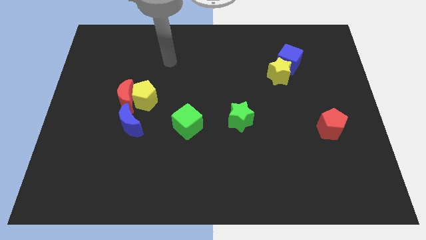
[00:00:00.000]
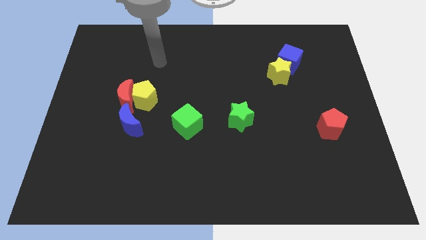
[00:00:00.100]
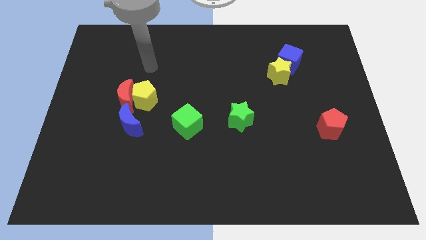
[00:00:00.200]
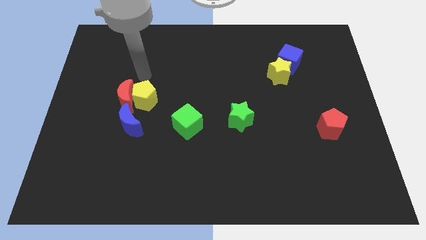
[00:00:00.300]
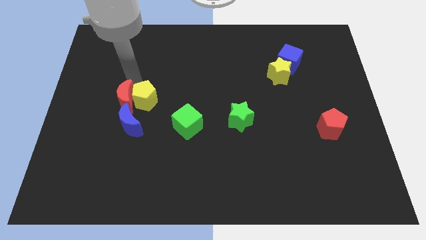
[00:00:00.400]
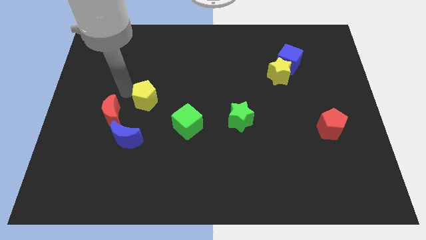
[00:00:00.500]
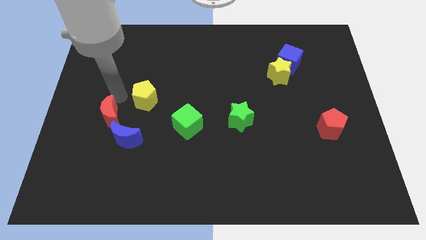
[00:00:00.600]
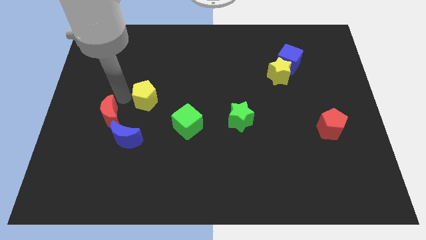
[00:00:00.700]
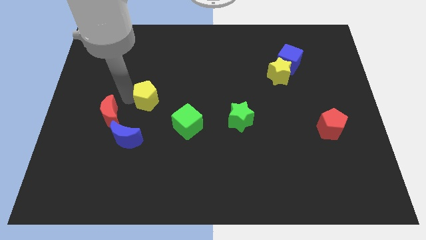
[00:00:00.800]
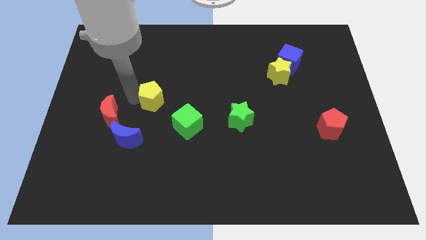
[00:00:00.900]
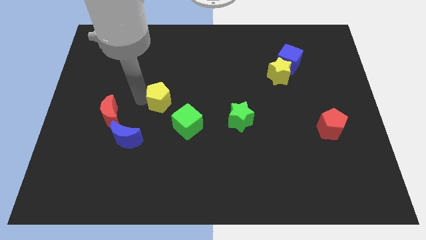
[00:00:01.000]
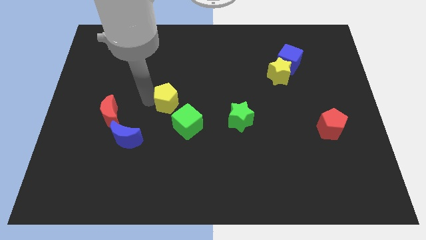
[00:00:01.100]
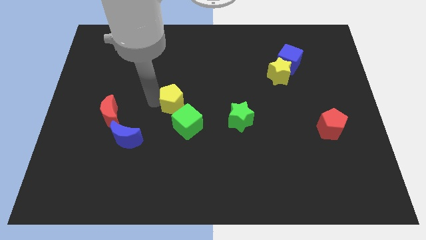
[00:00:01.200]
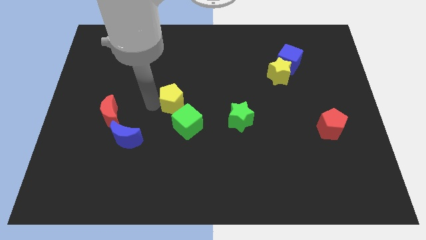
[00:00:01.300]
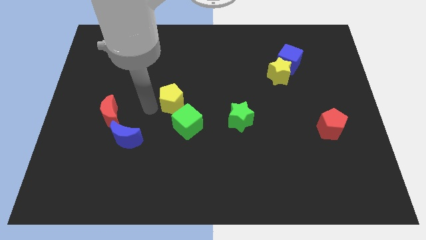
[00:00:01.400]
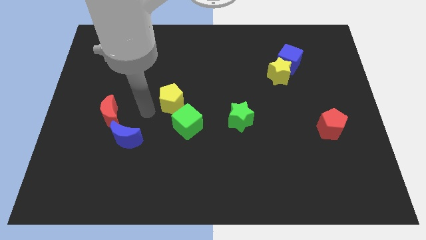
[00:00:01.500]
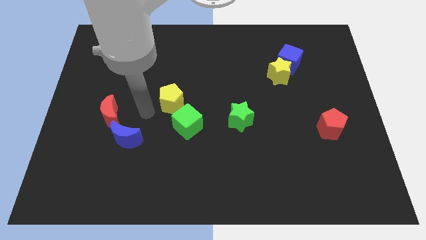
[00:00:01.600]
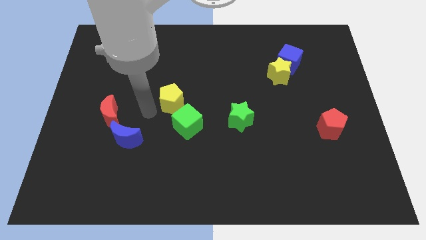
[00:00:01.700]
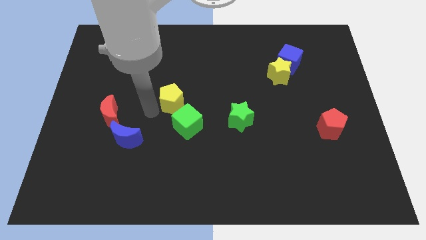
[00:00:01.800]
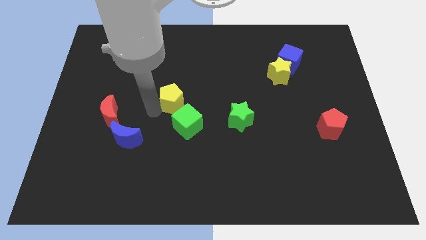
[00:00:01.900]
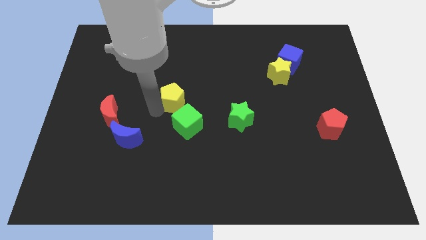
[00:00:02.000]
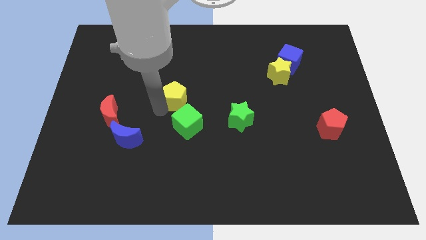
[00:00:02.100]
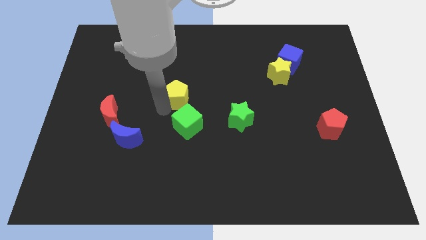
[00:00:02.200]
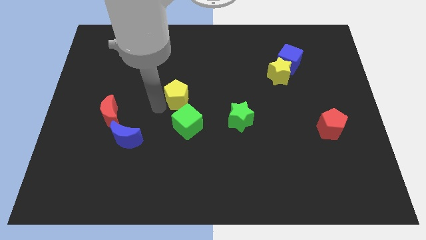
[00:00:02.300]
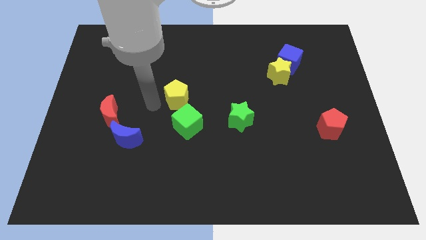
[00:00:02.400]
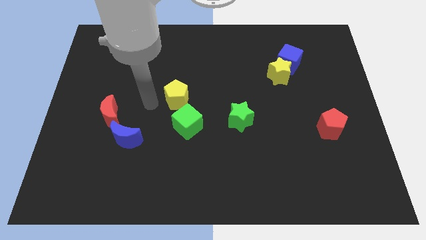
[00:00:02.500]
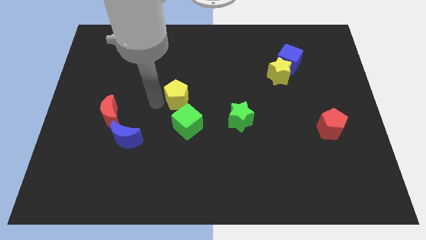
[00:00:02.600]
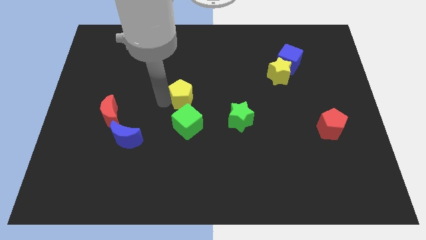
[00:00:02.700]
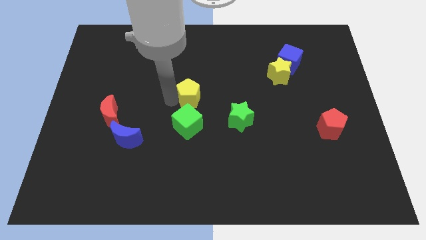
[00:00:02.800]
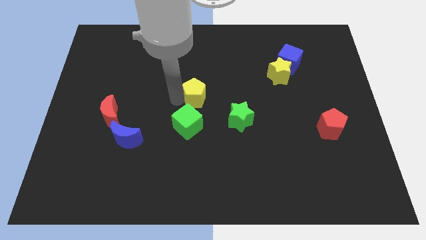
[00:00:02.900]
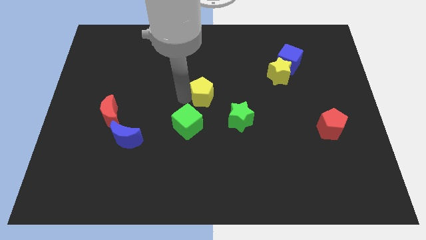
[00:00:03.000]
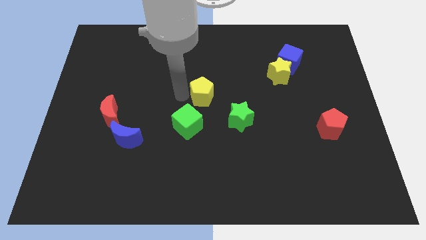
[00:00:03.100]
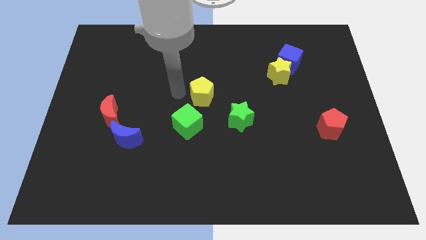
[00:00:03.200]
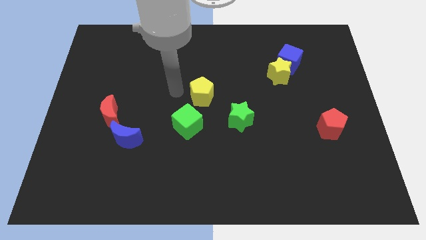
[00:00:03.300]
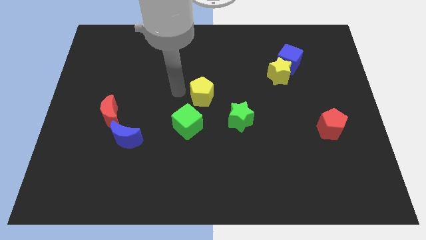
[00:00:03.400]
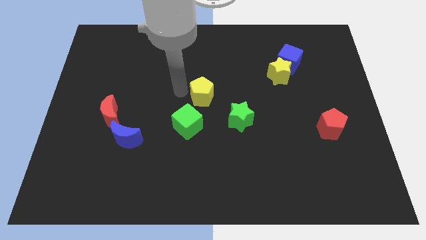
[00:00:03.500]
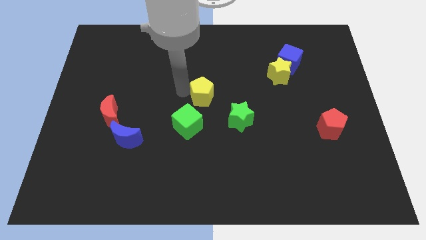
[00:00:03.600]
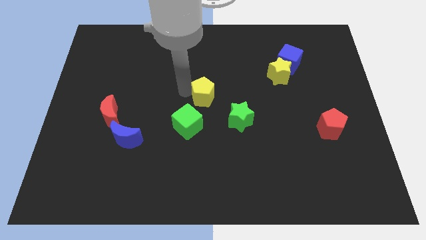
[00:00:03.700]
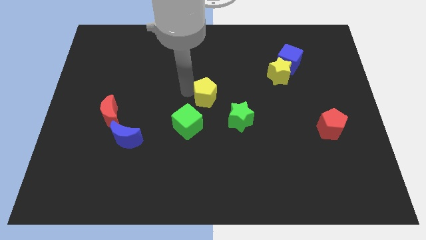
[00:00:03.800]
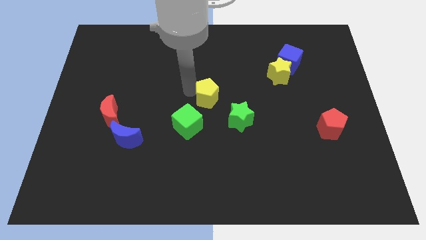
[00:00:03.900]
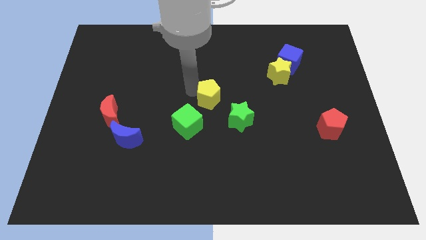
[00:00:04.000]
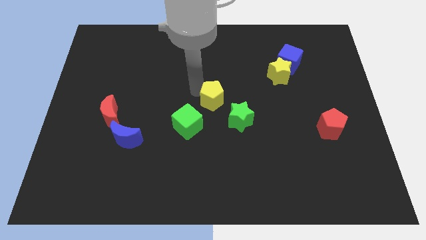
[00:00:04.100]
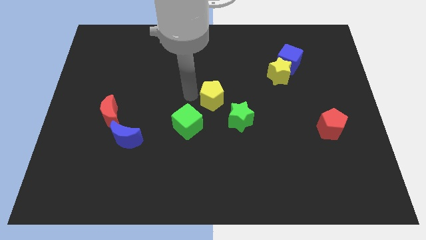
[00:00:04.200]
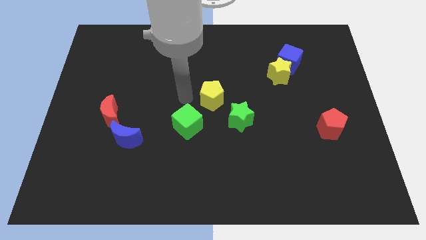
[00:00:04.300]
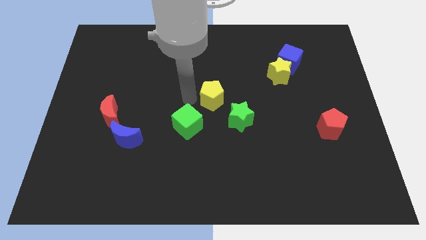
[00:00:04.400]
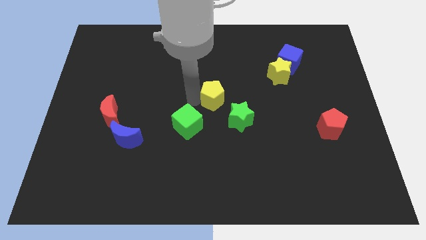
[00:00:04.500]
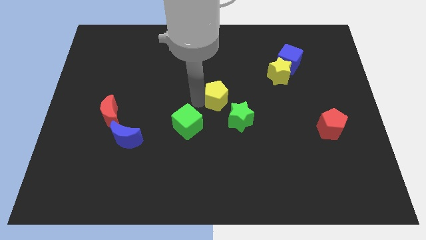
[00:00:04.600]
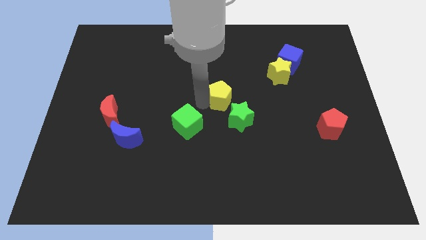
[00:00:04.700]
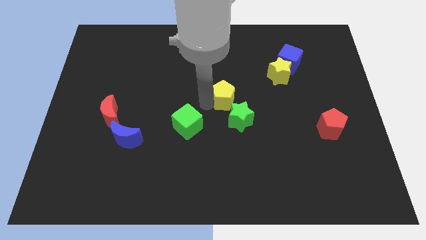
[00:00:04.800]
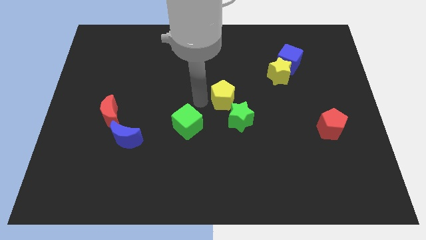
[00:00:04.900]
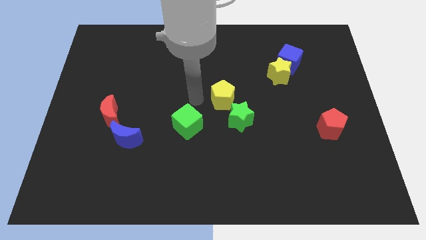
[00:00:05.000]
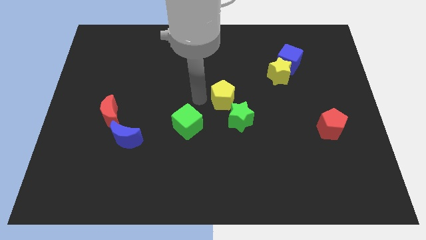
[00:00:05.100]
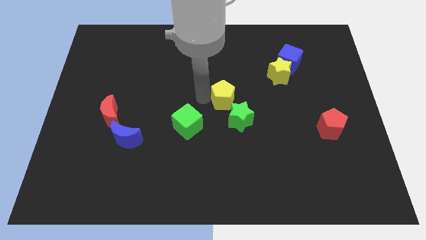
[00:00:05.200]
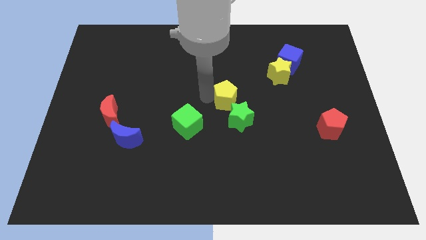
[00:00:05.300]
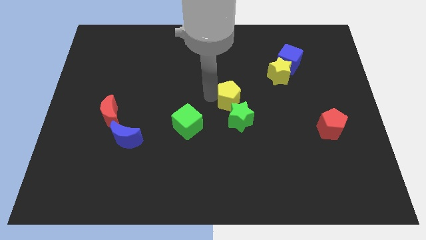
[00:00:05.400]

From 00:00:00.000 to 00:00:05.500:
move the yellow pentagon right

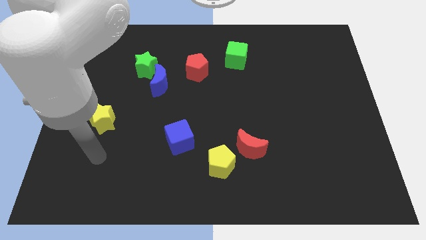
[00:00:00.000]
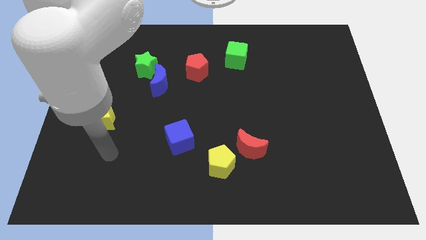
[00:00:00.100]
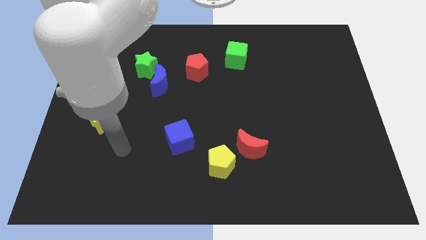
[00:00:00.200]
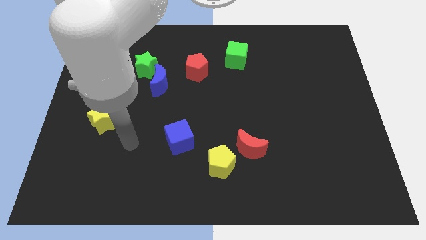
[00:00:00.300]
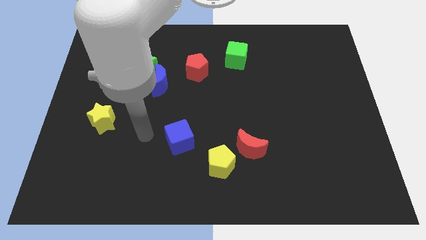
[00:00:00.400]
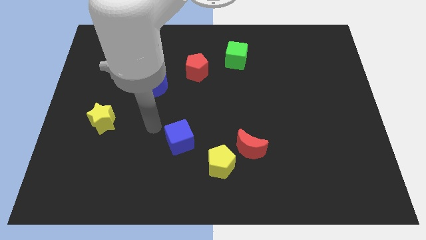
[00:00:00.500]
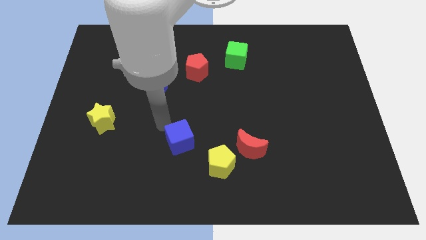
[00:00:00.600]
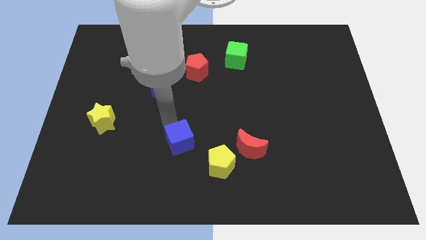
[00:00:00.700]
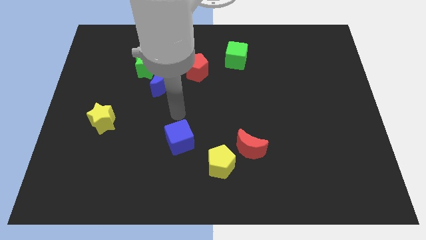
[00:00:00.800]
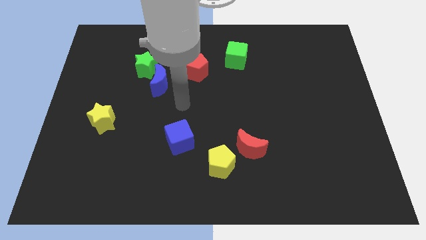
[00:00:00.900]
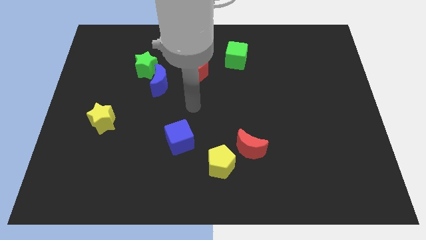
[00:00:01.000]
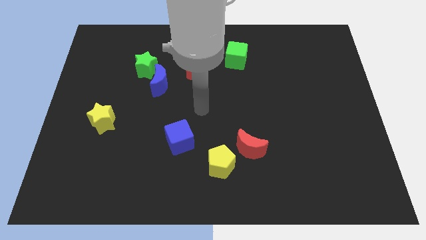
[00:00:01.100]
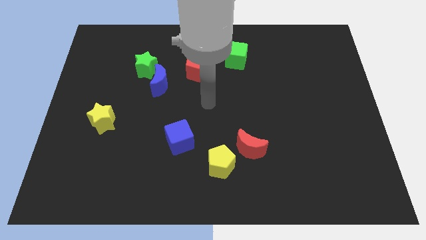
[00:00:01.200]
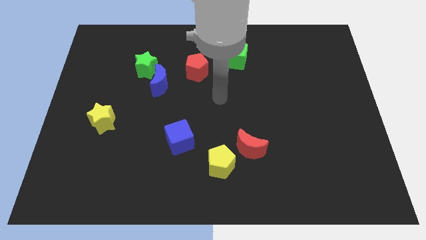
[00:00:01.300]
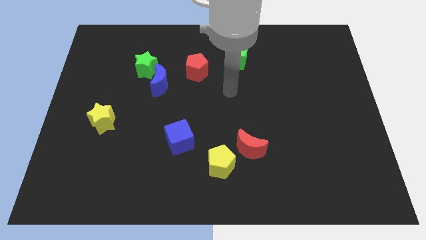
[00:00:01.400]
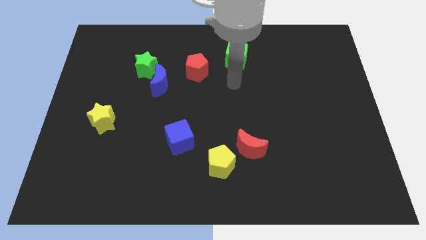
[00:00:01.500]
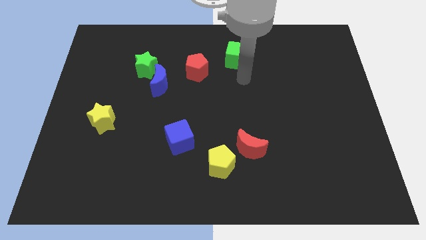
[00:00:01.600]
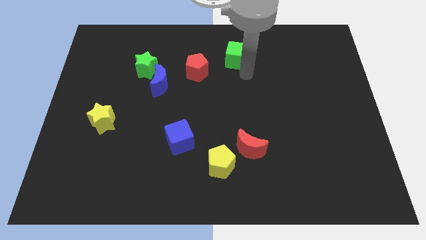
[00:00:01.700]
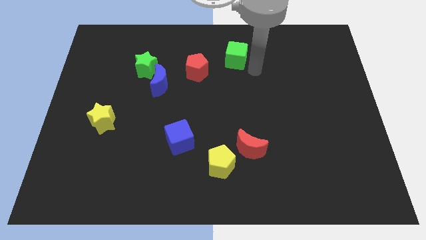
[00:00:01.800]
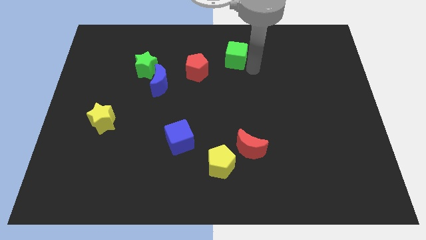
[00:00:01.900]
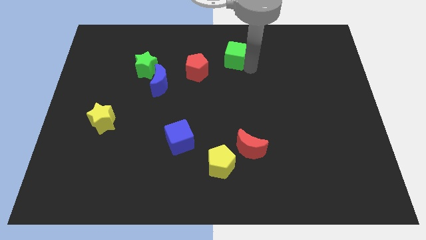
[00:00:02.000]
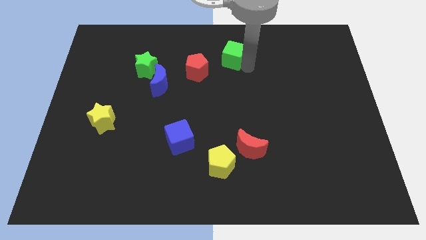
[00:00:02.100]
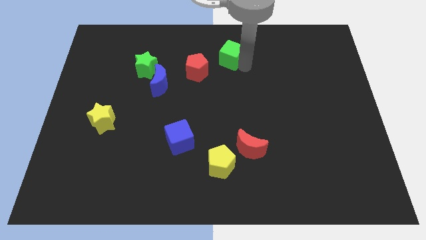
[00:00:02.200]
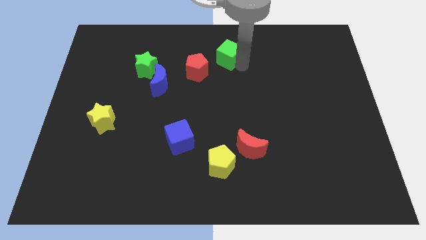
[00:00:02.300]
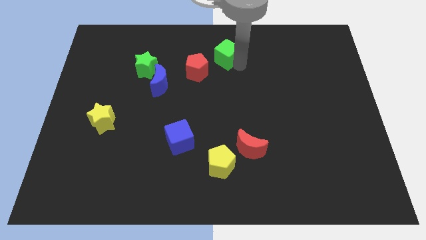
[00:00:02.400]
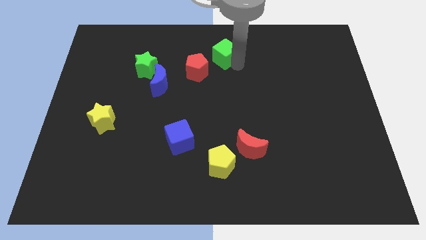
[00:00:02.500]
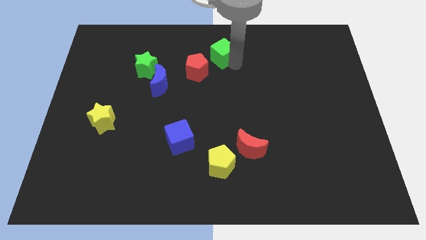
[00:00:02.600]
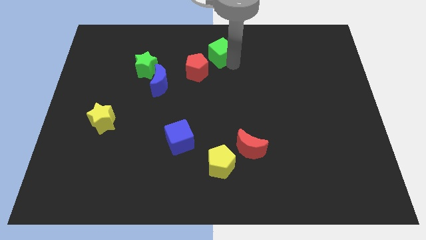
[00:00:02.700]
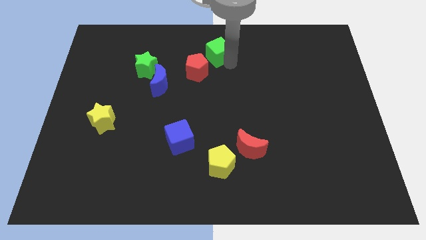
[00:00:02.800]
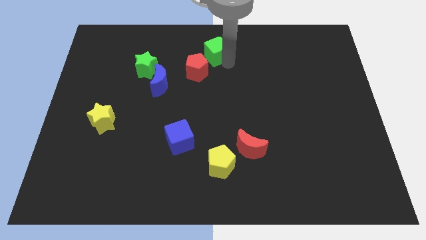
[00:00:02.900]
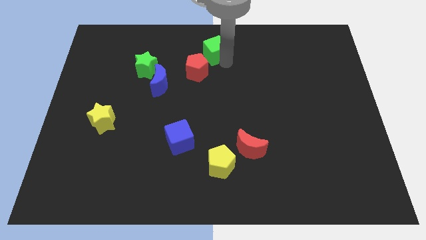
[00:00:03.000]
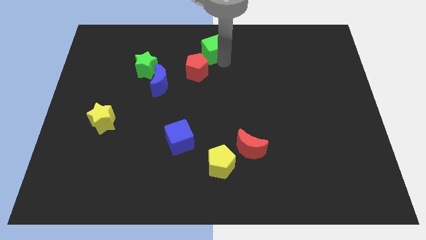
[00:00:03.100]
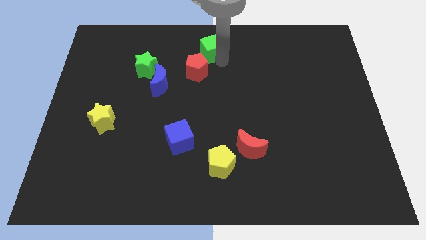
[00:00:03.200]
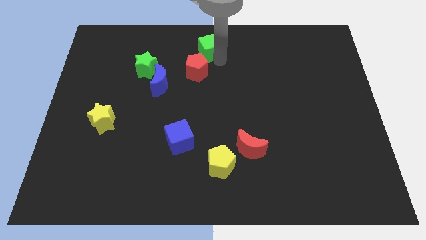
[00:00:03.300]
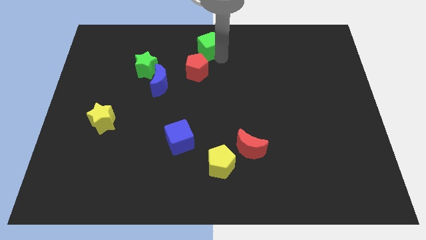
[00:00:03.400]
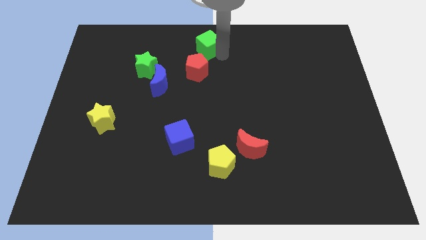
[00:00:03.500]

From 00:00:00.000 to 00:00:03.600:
slightly slide the green cube to the left
